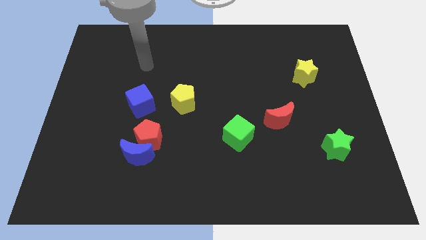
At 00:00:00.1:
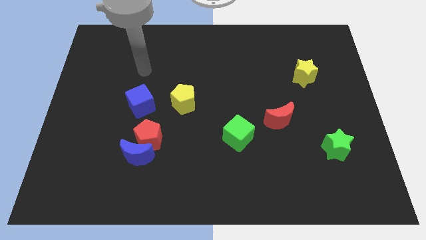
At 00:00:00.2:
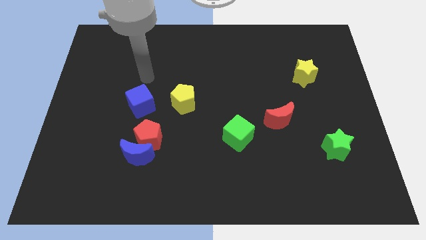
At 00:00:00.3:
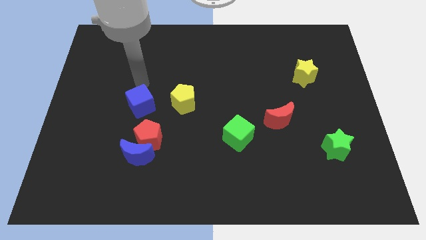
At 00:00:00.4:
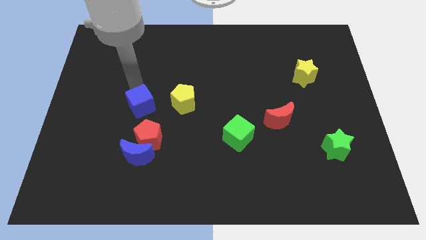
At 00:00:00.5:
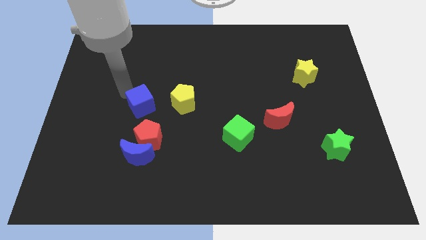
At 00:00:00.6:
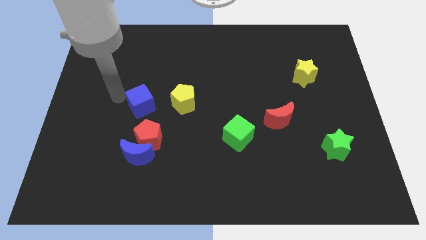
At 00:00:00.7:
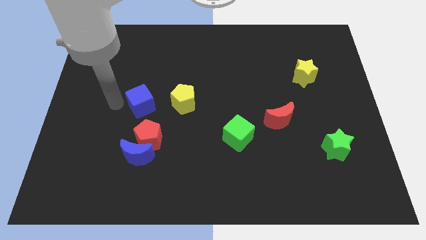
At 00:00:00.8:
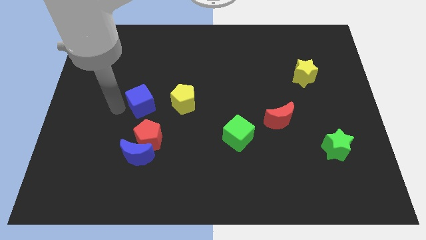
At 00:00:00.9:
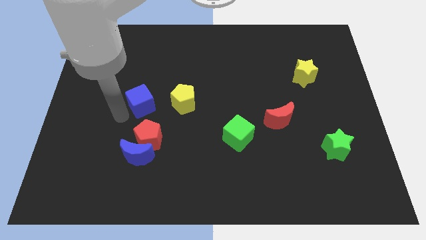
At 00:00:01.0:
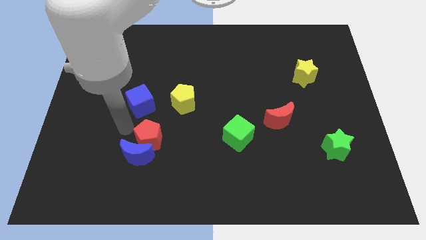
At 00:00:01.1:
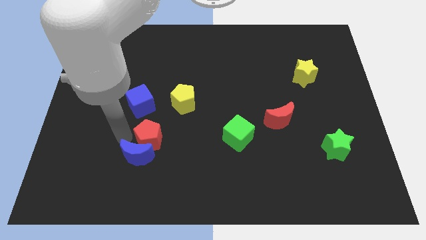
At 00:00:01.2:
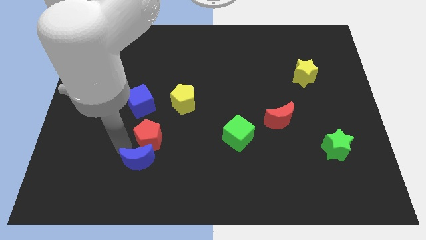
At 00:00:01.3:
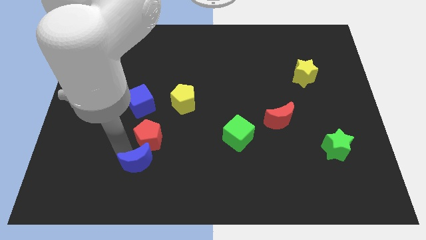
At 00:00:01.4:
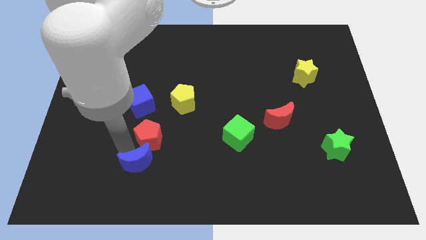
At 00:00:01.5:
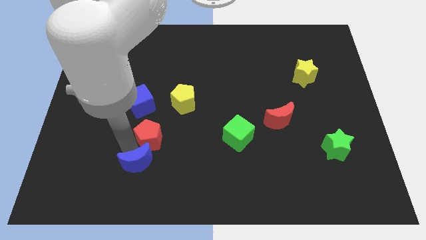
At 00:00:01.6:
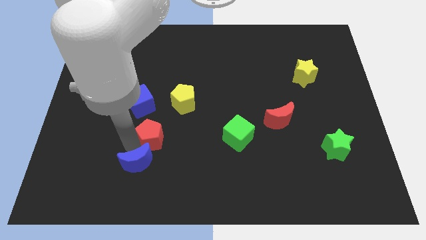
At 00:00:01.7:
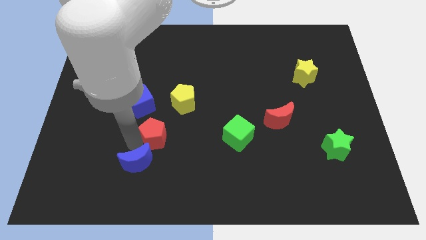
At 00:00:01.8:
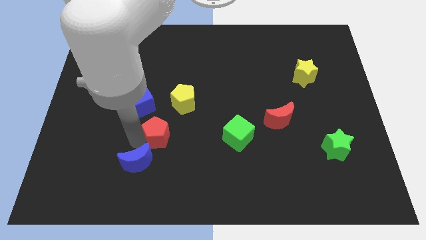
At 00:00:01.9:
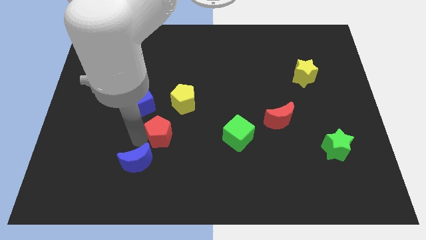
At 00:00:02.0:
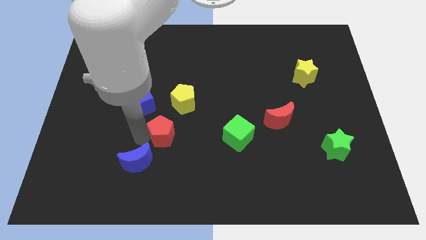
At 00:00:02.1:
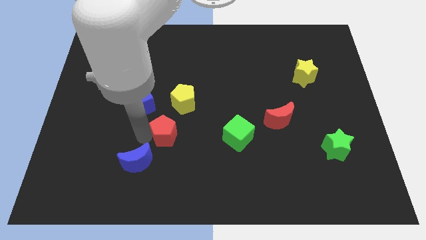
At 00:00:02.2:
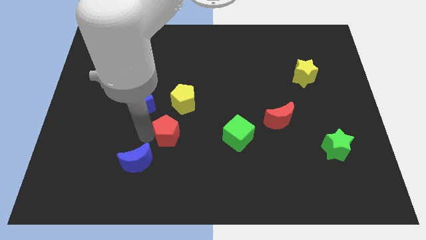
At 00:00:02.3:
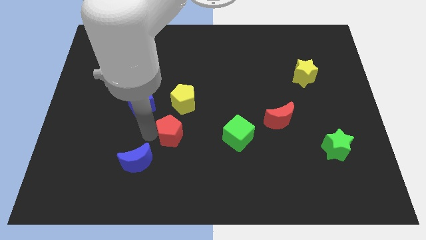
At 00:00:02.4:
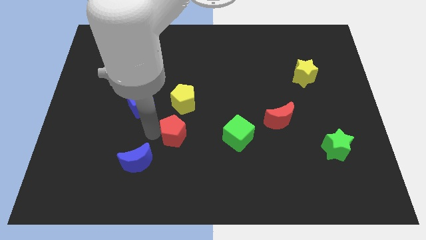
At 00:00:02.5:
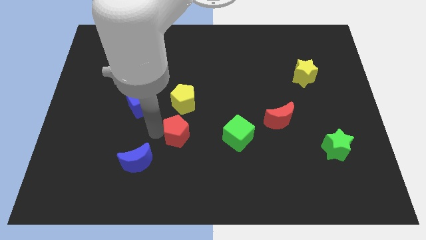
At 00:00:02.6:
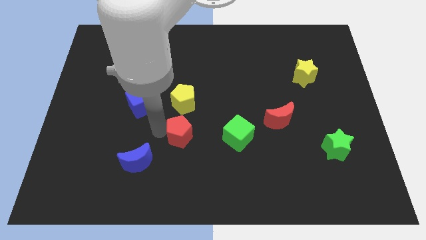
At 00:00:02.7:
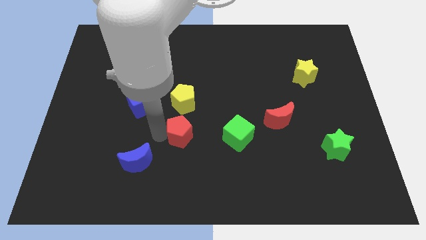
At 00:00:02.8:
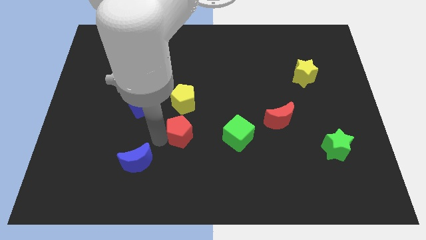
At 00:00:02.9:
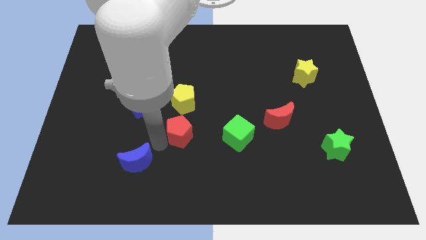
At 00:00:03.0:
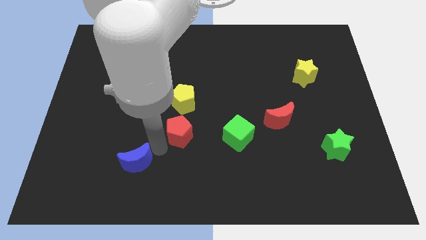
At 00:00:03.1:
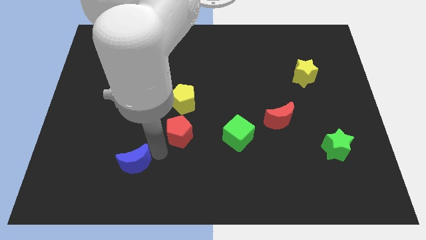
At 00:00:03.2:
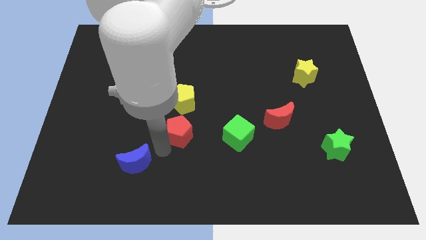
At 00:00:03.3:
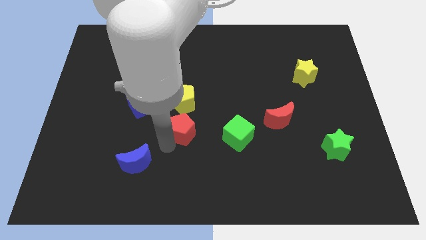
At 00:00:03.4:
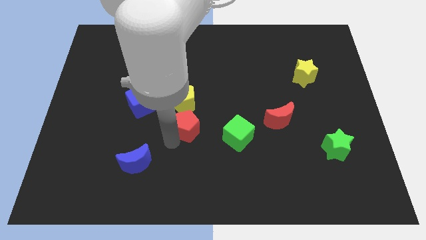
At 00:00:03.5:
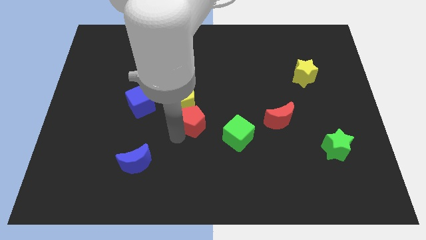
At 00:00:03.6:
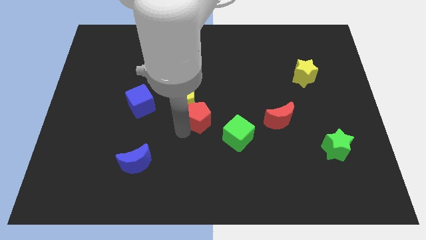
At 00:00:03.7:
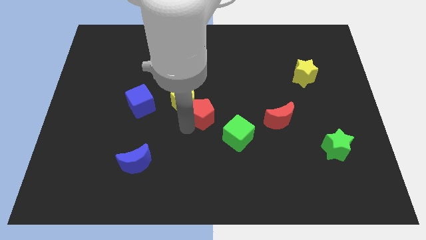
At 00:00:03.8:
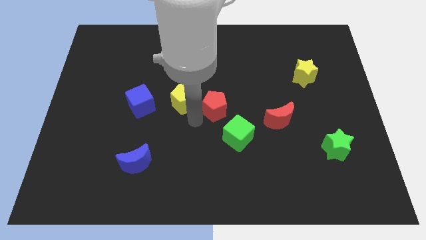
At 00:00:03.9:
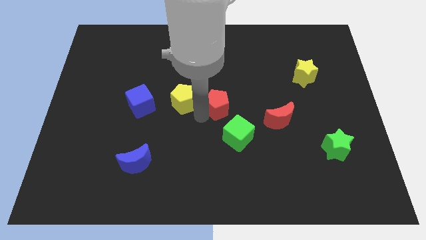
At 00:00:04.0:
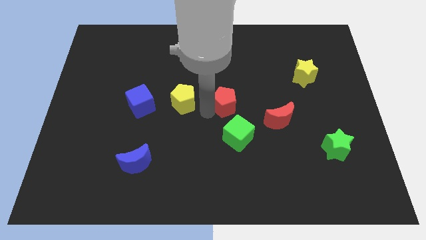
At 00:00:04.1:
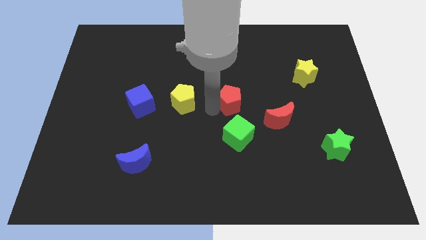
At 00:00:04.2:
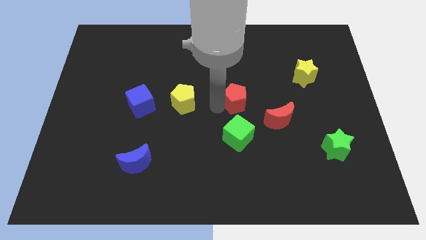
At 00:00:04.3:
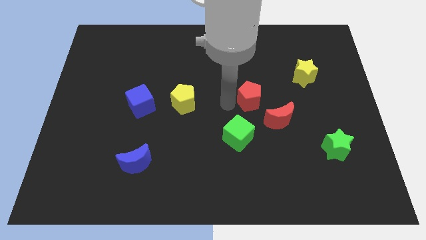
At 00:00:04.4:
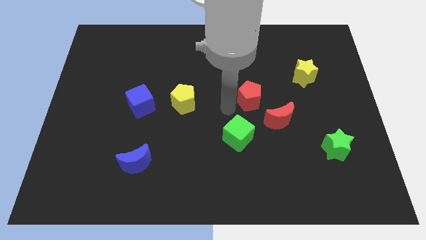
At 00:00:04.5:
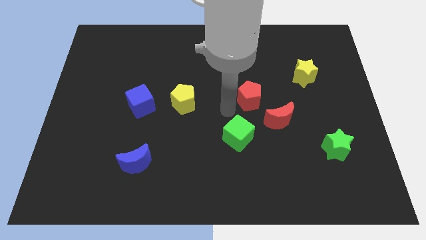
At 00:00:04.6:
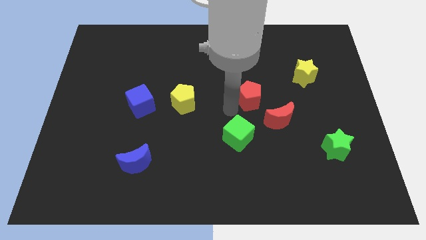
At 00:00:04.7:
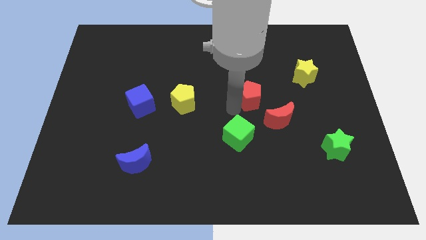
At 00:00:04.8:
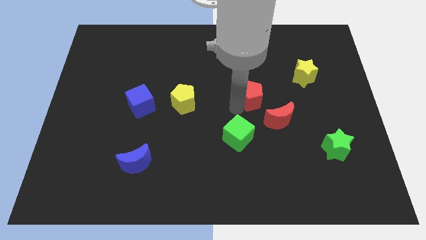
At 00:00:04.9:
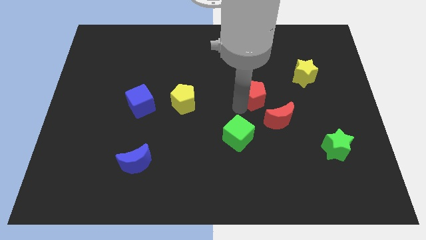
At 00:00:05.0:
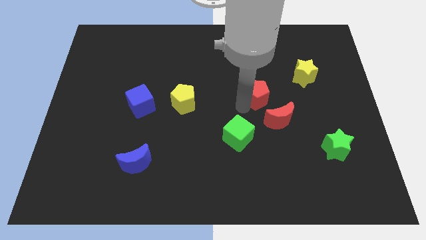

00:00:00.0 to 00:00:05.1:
slide the red pentagon to the top side of the red moon

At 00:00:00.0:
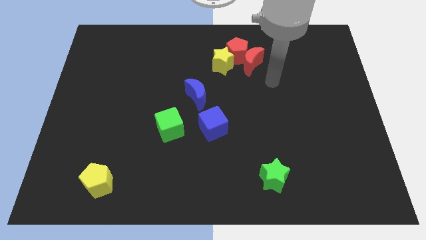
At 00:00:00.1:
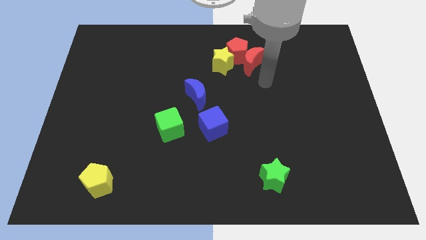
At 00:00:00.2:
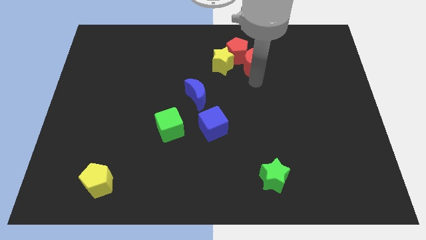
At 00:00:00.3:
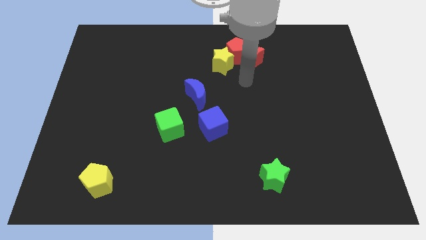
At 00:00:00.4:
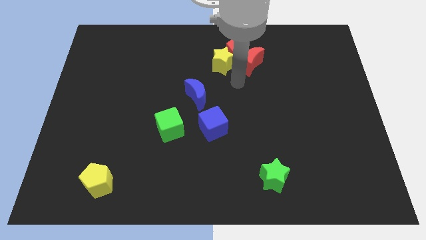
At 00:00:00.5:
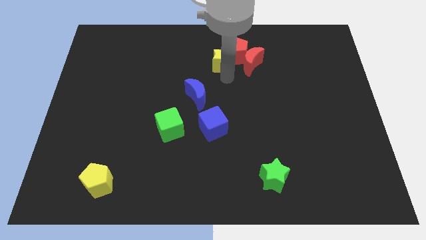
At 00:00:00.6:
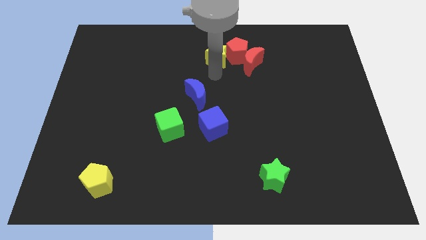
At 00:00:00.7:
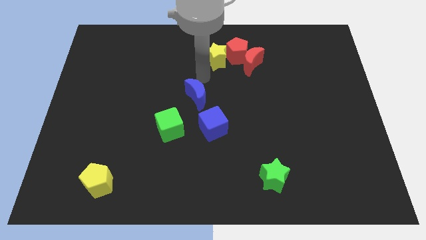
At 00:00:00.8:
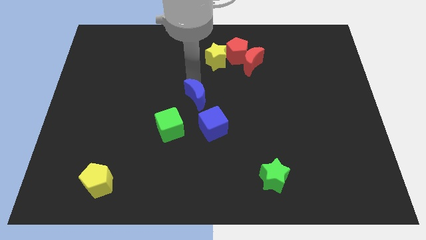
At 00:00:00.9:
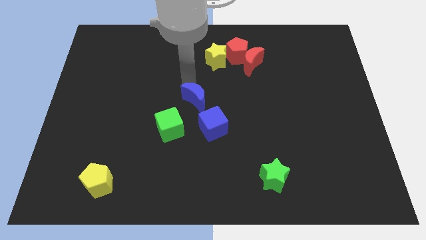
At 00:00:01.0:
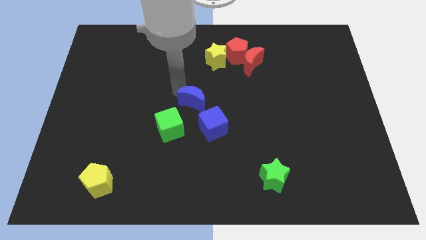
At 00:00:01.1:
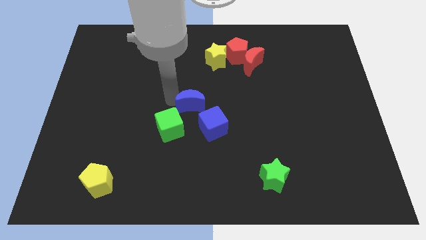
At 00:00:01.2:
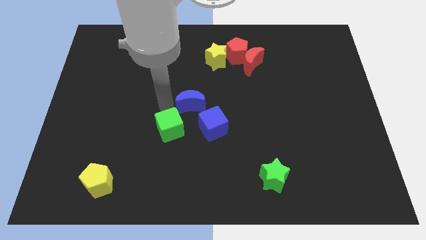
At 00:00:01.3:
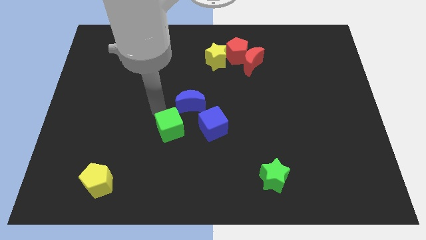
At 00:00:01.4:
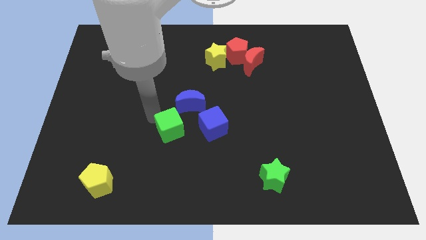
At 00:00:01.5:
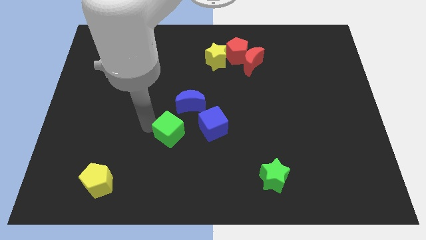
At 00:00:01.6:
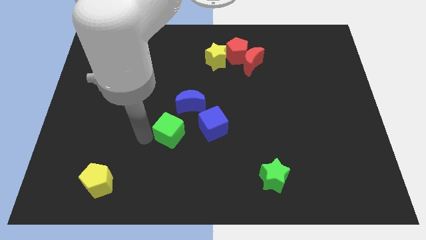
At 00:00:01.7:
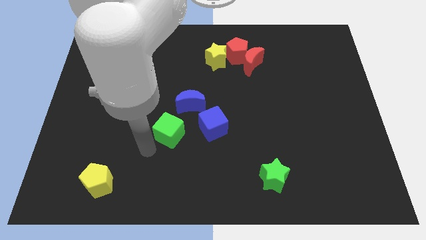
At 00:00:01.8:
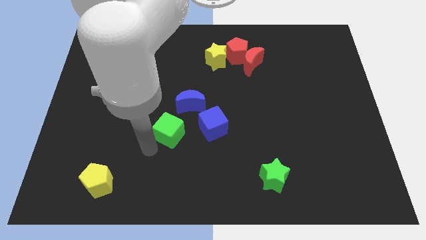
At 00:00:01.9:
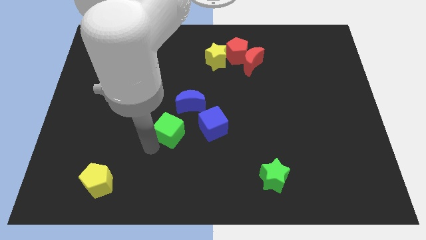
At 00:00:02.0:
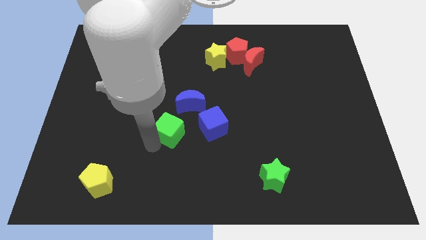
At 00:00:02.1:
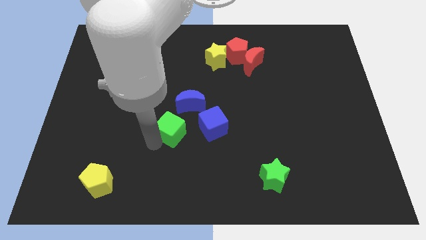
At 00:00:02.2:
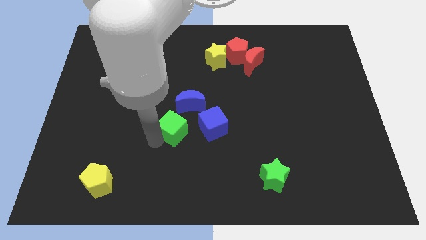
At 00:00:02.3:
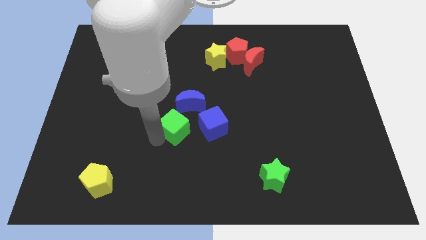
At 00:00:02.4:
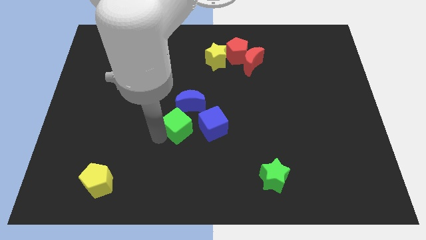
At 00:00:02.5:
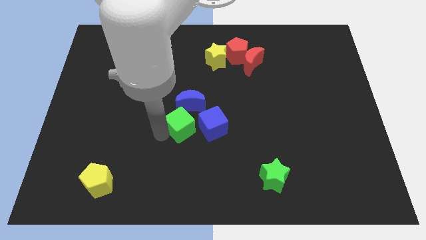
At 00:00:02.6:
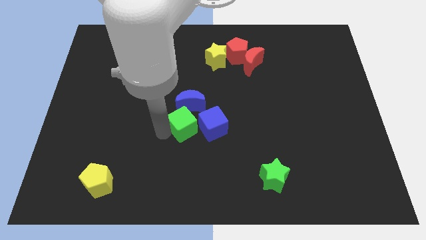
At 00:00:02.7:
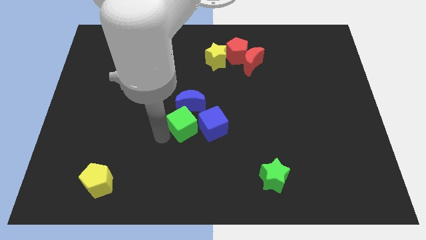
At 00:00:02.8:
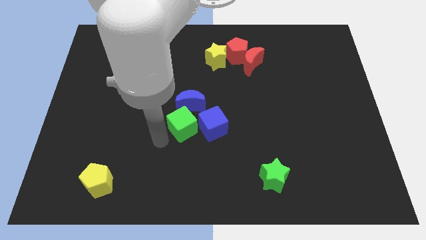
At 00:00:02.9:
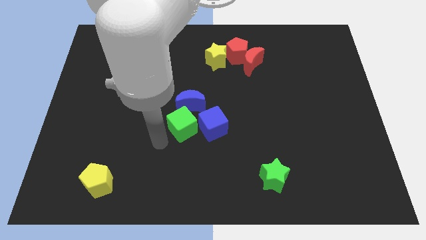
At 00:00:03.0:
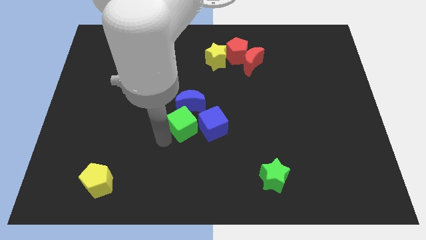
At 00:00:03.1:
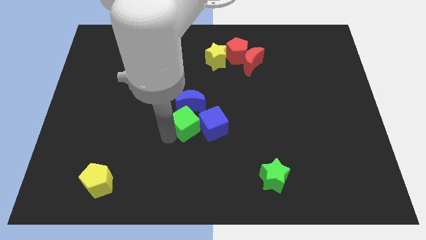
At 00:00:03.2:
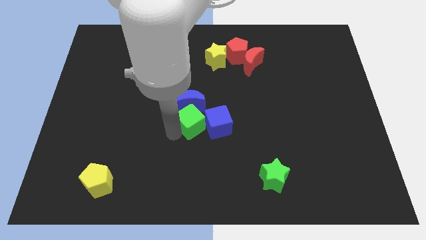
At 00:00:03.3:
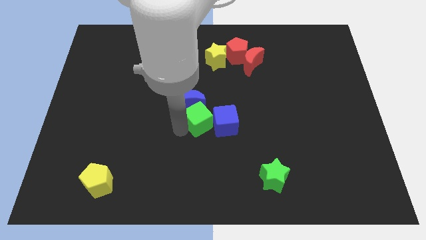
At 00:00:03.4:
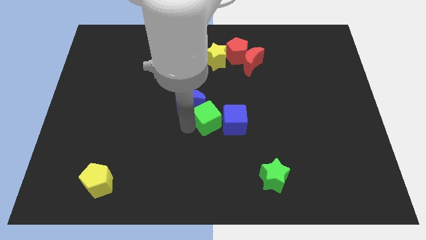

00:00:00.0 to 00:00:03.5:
move the green cube to the right of the blue moon
